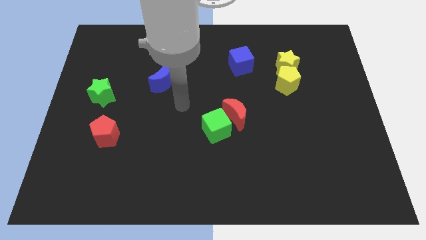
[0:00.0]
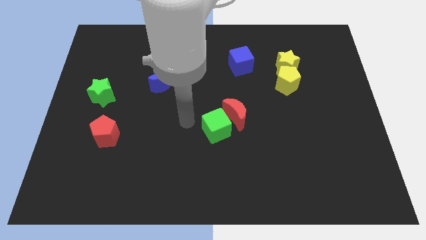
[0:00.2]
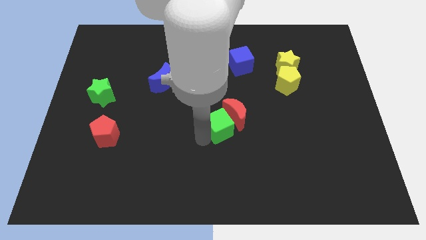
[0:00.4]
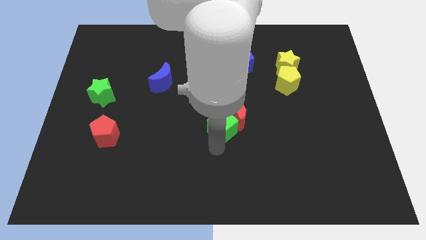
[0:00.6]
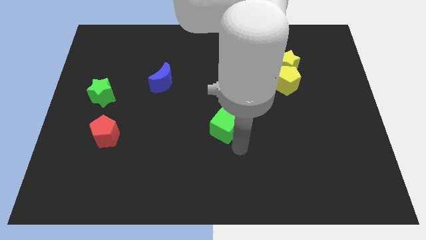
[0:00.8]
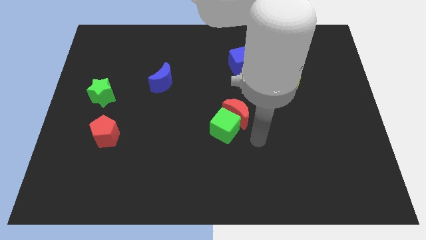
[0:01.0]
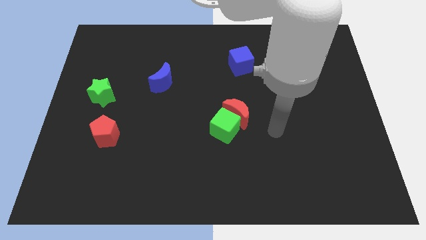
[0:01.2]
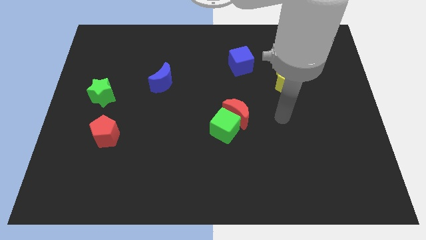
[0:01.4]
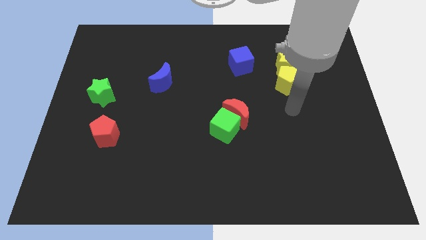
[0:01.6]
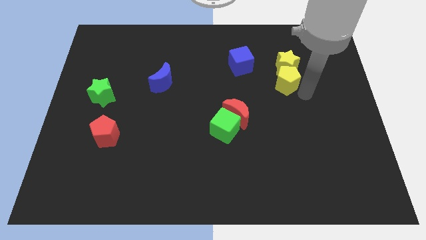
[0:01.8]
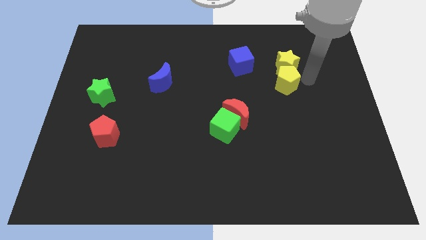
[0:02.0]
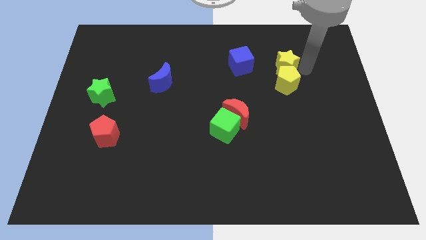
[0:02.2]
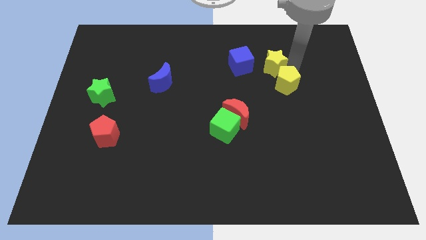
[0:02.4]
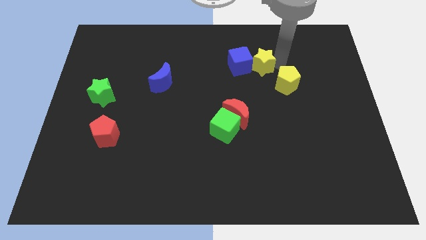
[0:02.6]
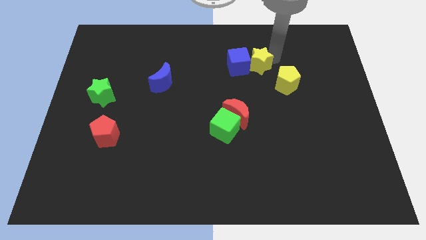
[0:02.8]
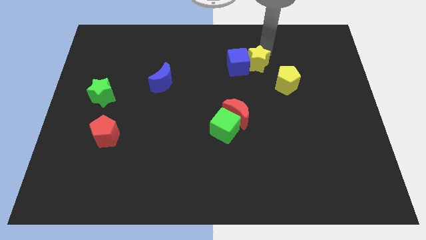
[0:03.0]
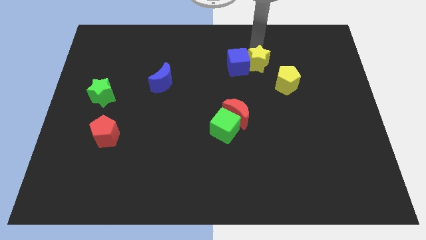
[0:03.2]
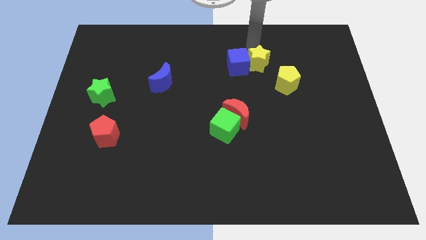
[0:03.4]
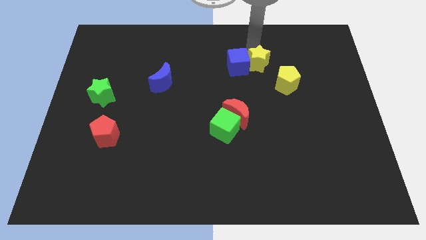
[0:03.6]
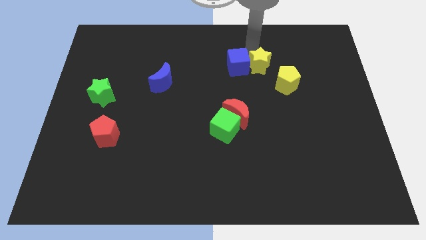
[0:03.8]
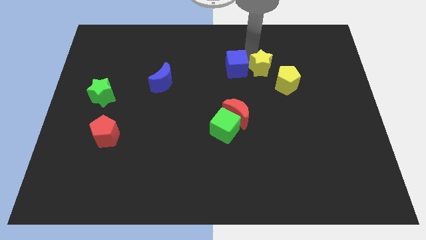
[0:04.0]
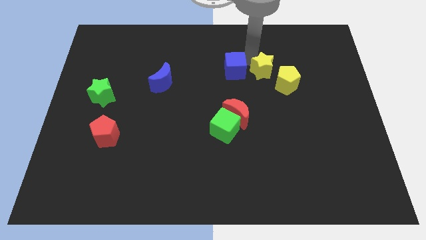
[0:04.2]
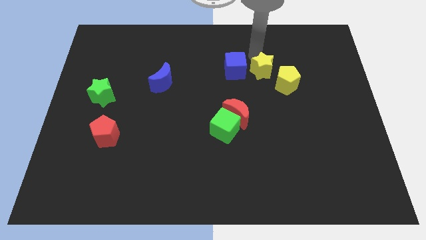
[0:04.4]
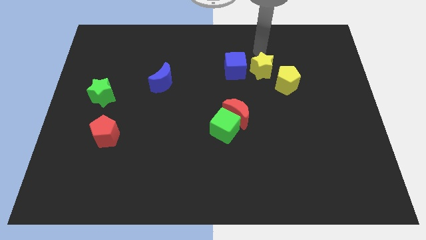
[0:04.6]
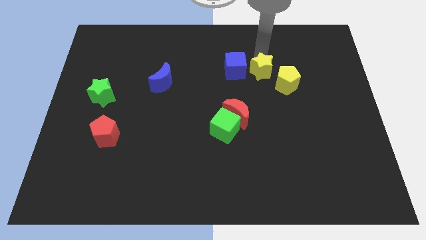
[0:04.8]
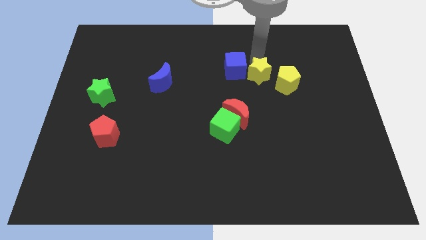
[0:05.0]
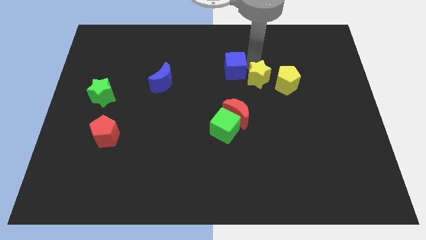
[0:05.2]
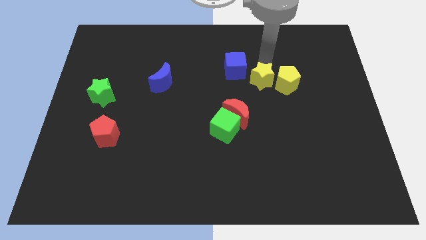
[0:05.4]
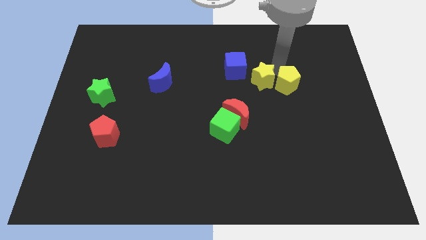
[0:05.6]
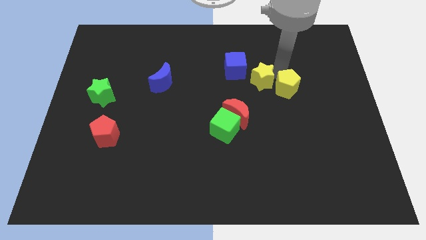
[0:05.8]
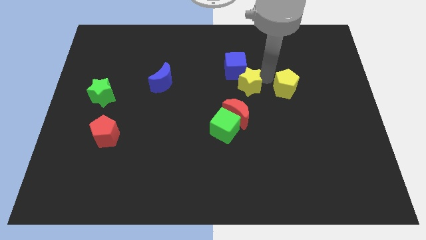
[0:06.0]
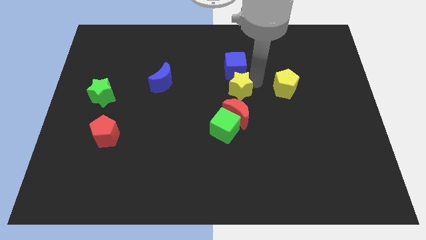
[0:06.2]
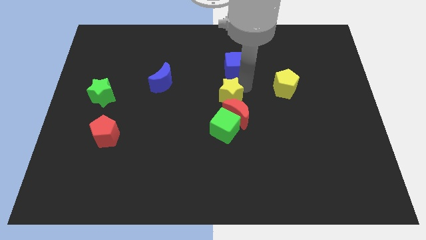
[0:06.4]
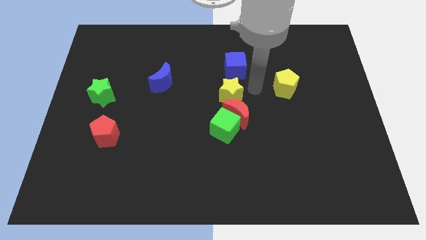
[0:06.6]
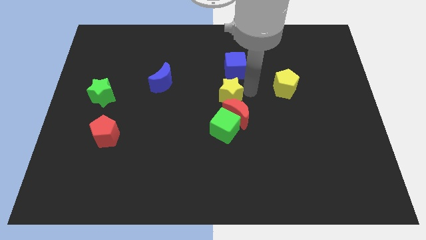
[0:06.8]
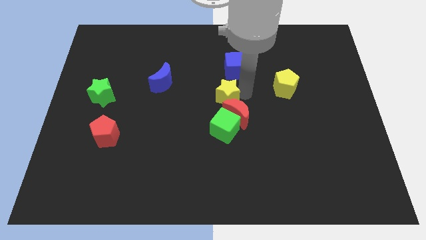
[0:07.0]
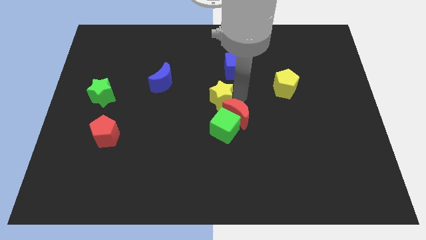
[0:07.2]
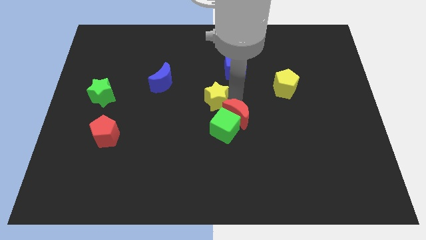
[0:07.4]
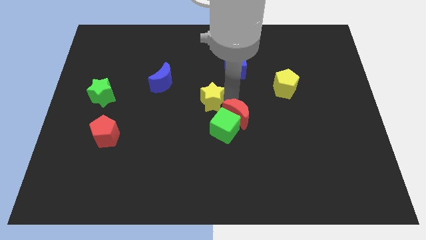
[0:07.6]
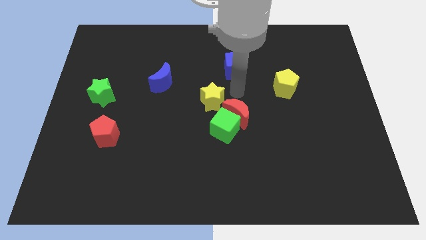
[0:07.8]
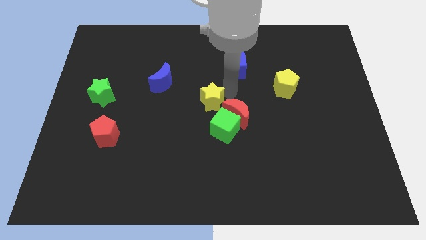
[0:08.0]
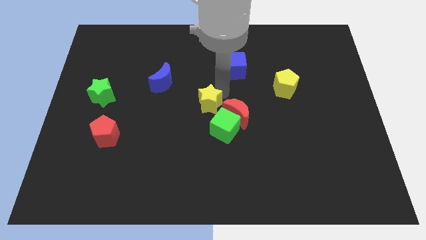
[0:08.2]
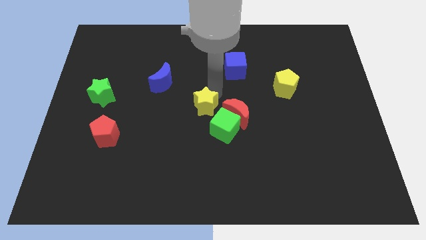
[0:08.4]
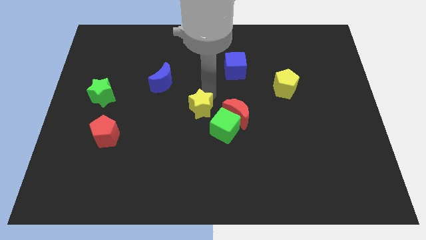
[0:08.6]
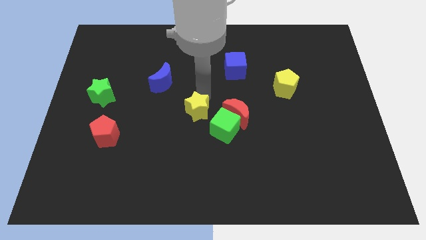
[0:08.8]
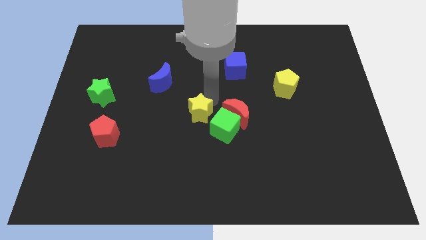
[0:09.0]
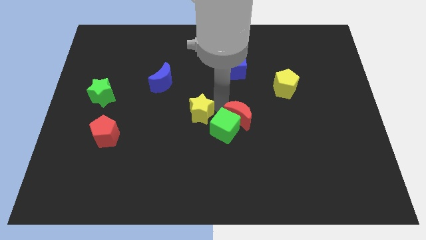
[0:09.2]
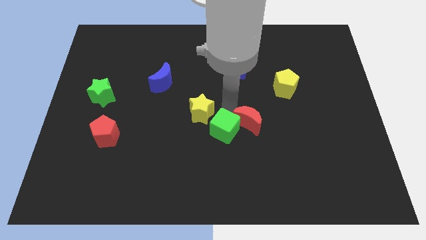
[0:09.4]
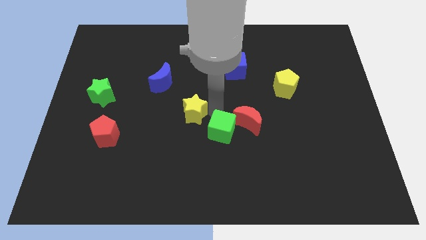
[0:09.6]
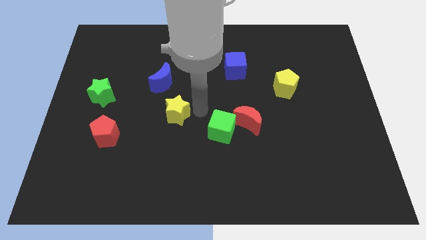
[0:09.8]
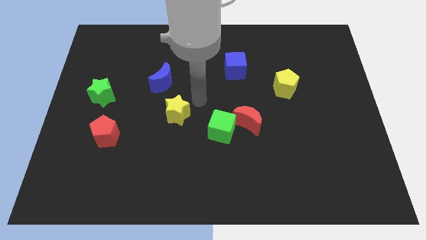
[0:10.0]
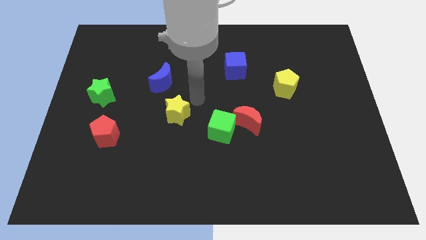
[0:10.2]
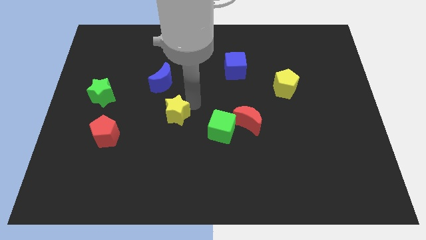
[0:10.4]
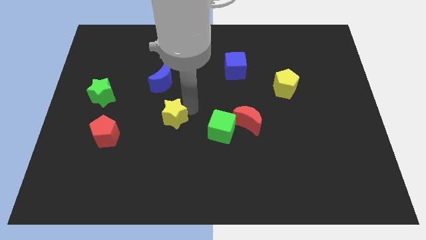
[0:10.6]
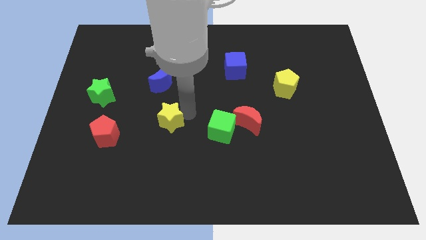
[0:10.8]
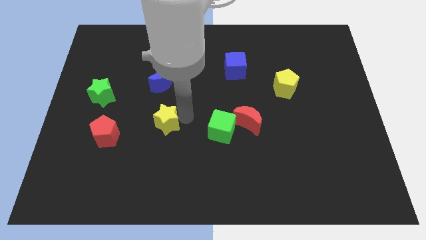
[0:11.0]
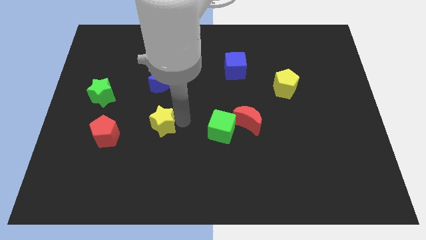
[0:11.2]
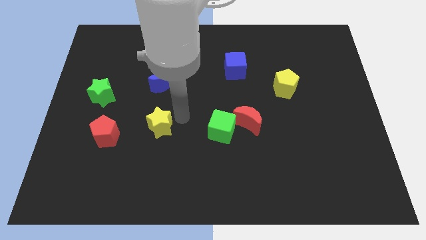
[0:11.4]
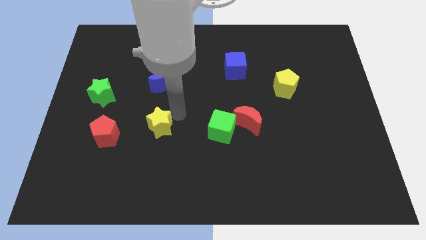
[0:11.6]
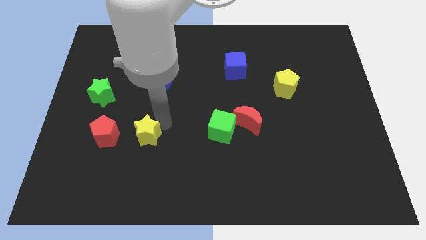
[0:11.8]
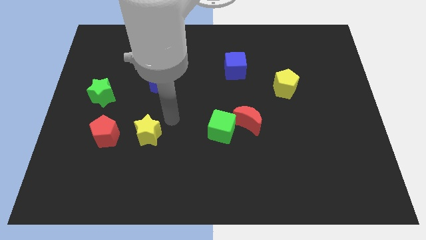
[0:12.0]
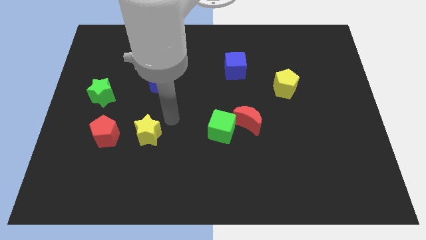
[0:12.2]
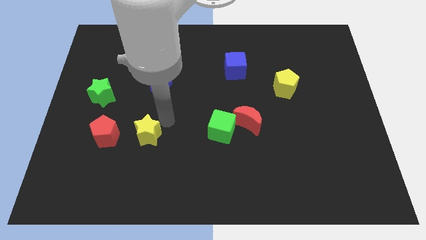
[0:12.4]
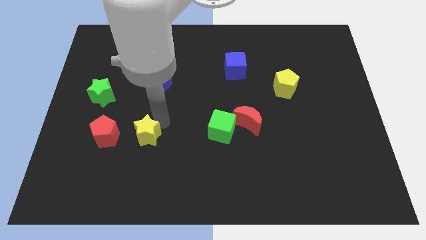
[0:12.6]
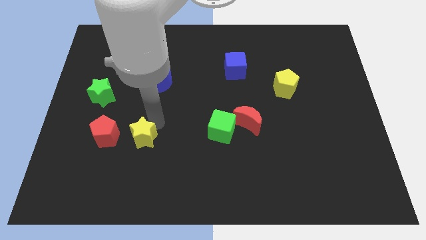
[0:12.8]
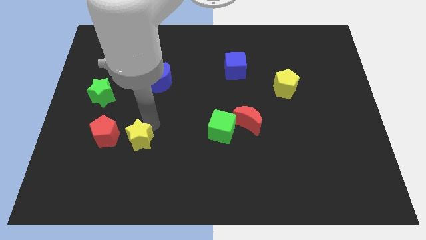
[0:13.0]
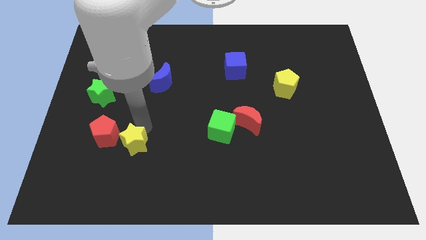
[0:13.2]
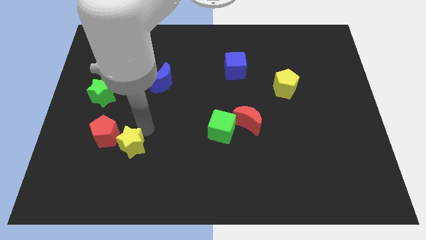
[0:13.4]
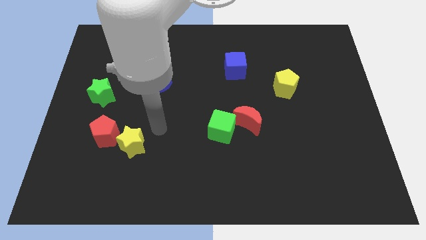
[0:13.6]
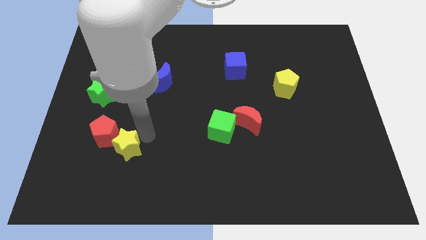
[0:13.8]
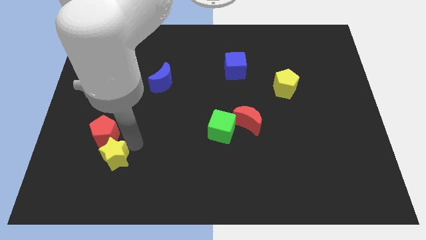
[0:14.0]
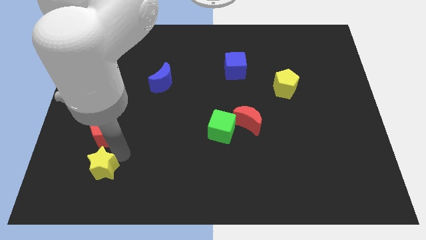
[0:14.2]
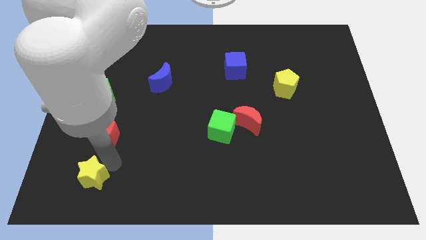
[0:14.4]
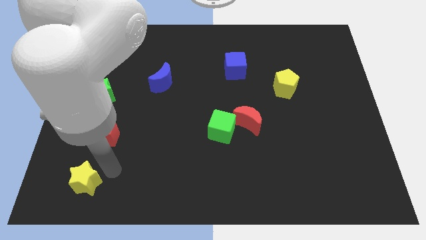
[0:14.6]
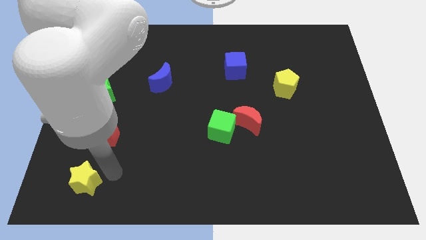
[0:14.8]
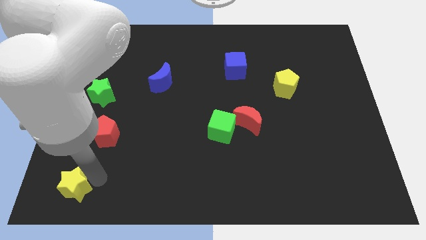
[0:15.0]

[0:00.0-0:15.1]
push the yellow star to the bottom left corner
